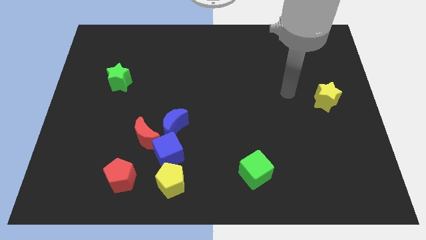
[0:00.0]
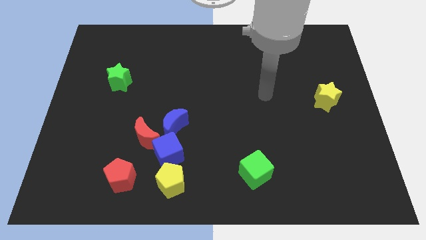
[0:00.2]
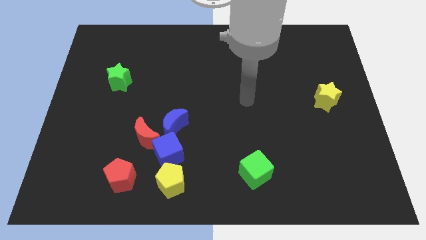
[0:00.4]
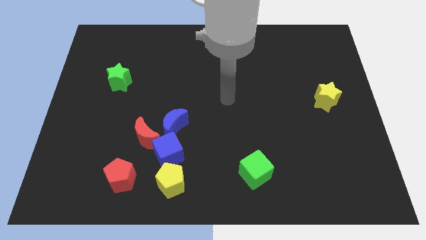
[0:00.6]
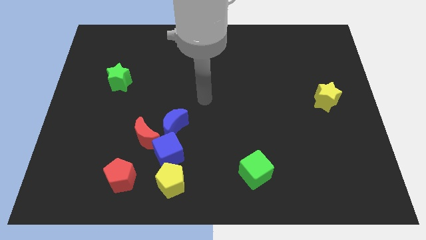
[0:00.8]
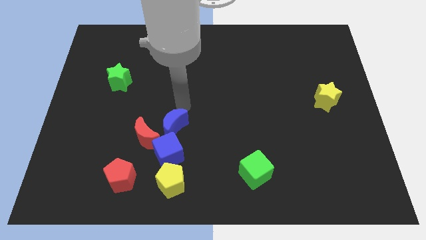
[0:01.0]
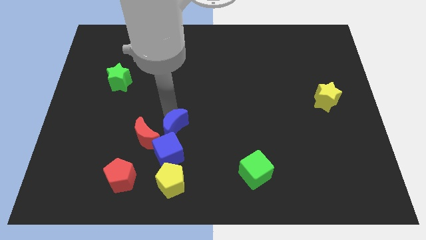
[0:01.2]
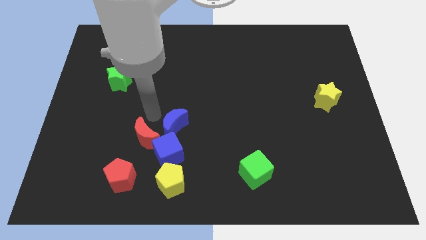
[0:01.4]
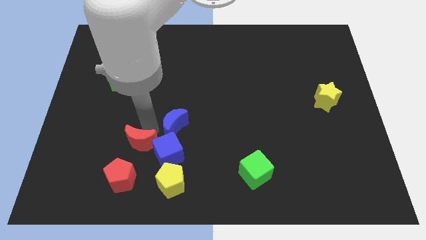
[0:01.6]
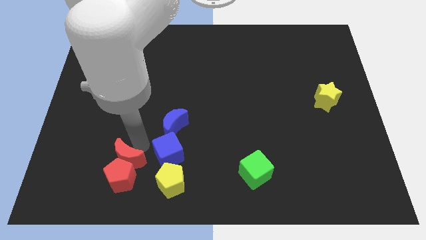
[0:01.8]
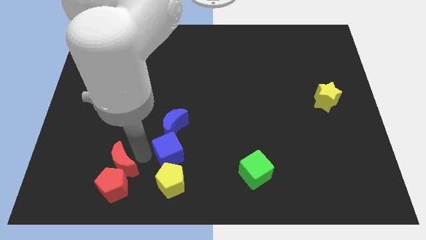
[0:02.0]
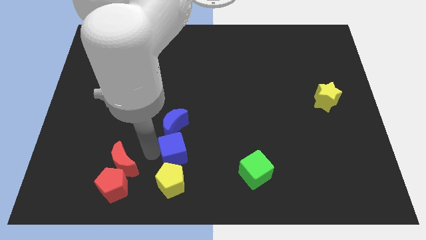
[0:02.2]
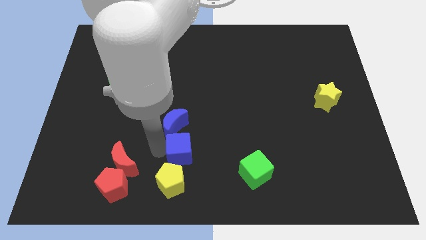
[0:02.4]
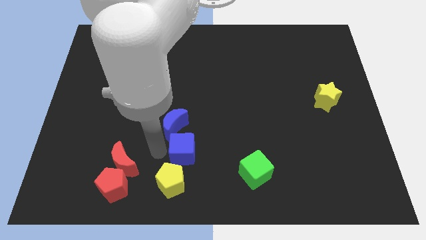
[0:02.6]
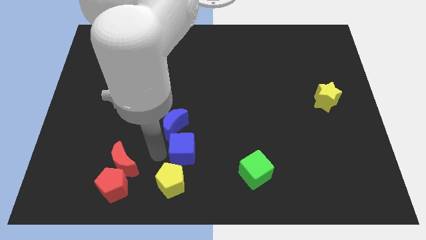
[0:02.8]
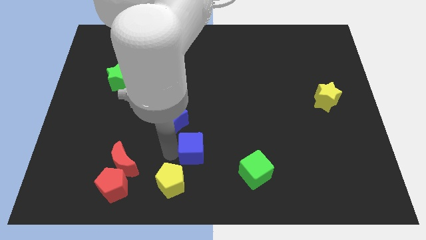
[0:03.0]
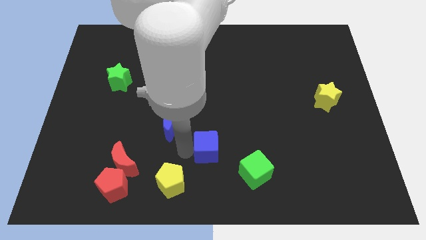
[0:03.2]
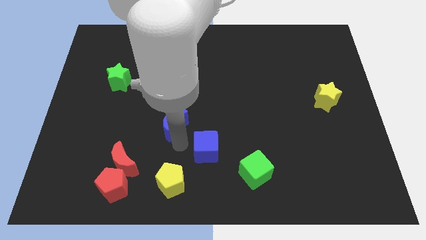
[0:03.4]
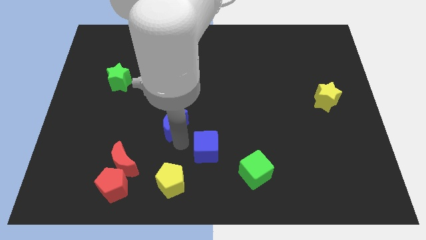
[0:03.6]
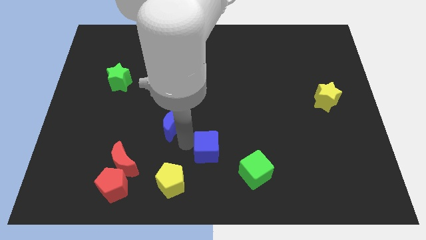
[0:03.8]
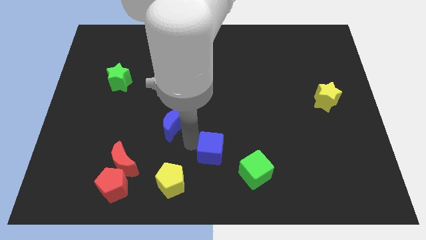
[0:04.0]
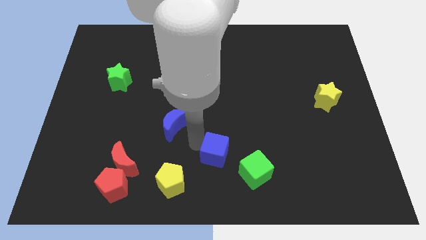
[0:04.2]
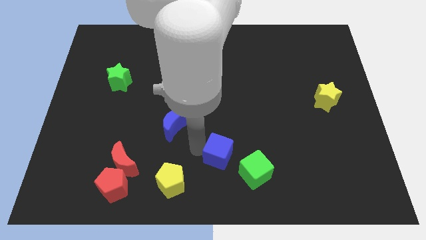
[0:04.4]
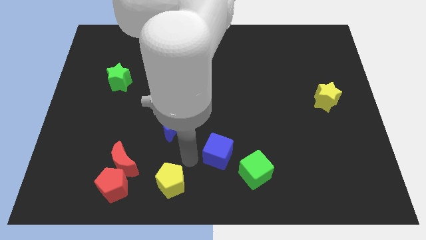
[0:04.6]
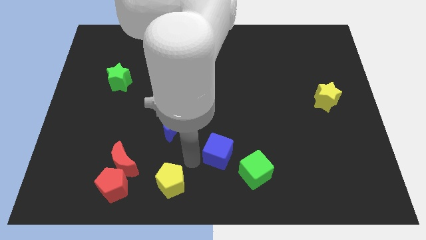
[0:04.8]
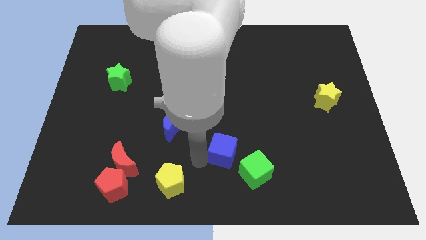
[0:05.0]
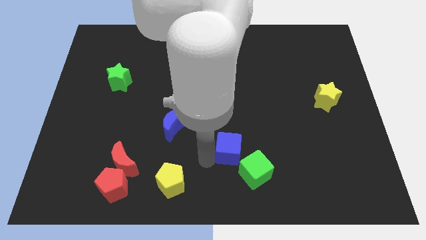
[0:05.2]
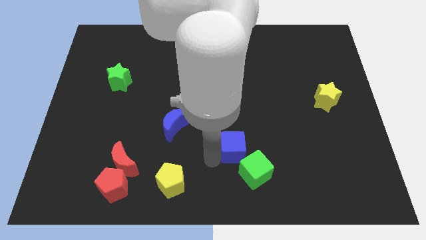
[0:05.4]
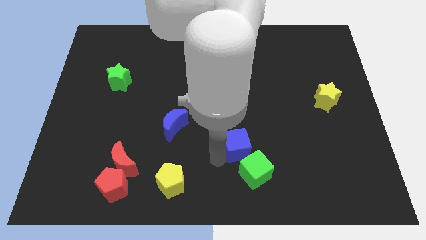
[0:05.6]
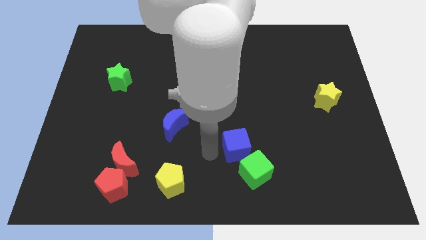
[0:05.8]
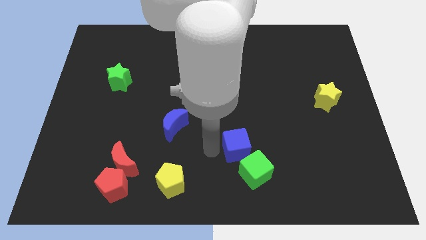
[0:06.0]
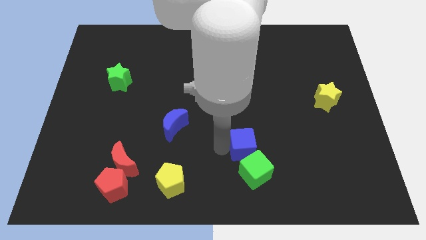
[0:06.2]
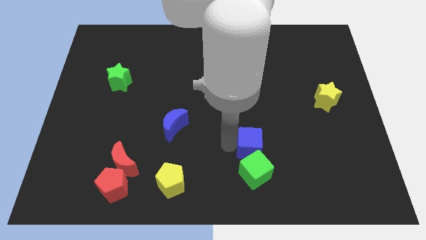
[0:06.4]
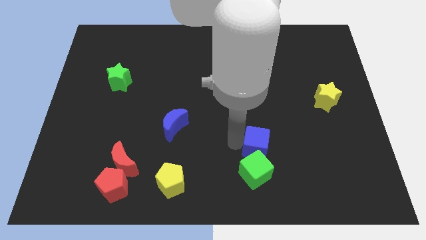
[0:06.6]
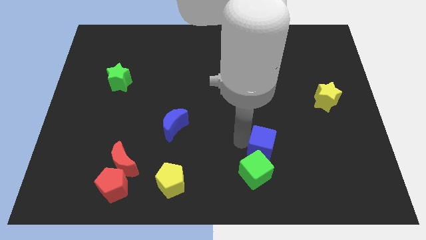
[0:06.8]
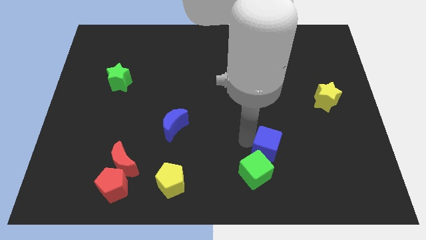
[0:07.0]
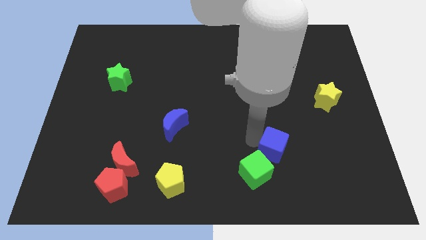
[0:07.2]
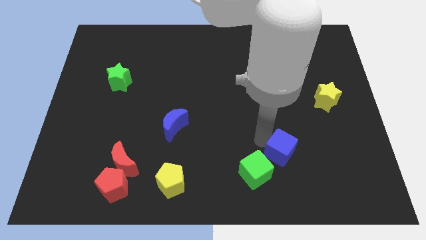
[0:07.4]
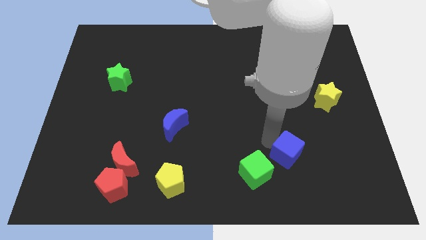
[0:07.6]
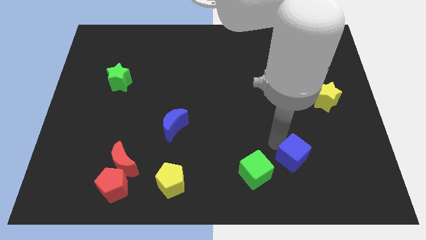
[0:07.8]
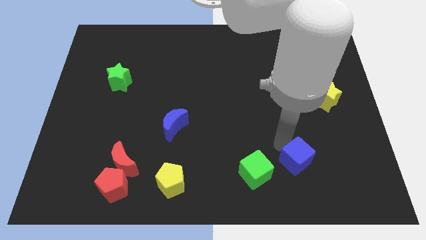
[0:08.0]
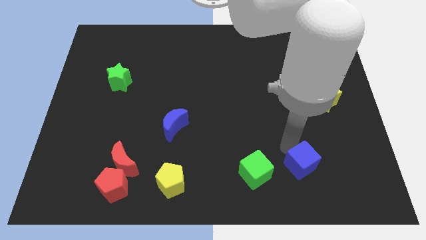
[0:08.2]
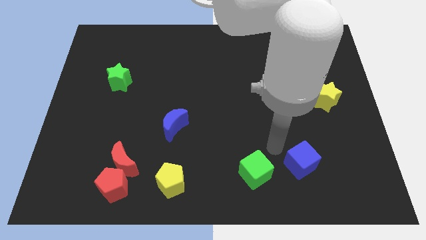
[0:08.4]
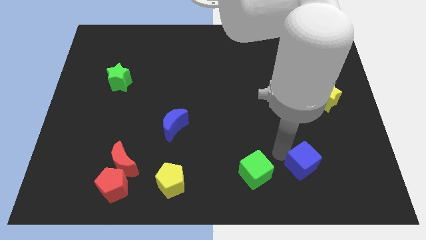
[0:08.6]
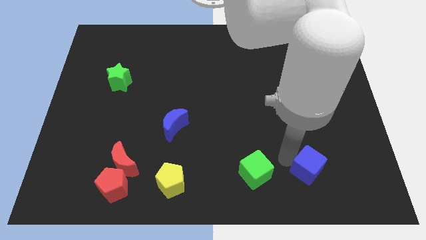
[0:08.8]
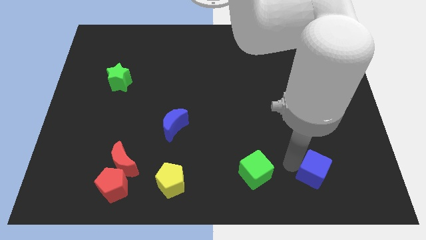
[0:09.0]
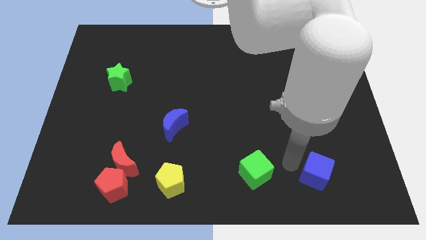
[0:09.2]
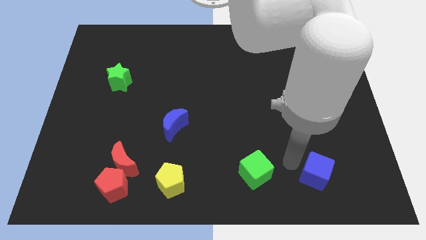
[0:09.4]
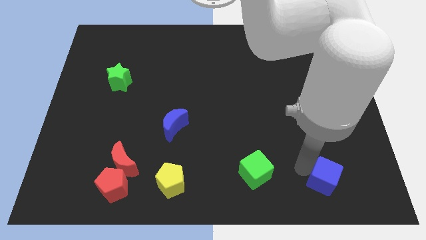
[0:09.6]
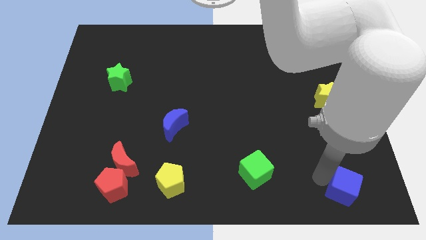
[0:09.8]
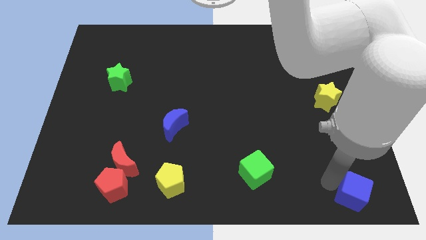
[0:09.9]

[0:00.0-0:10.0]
push the blue cube to the bottom right of the board

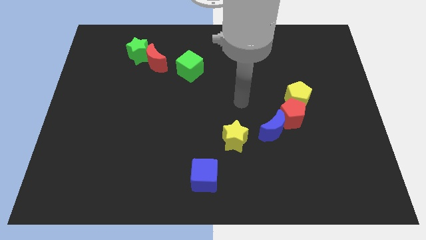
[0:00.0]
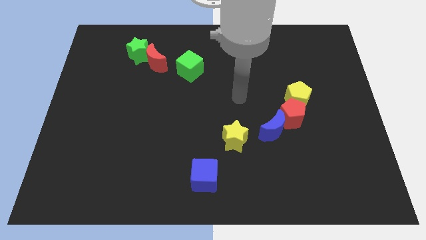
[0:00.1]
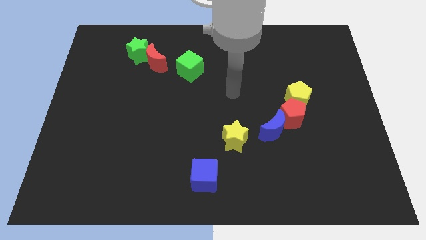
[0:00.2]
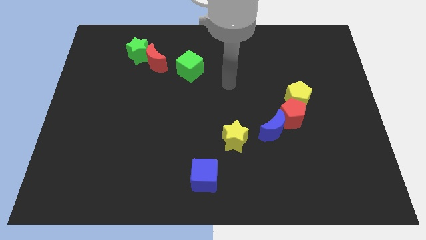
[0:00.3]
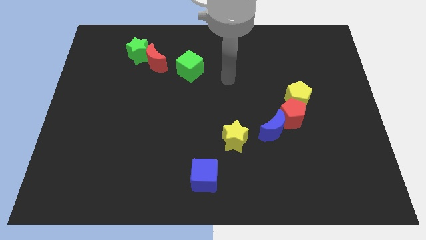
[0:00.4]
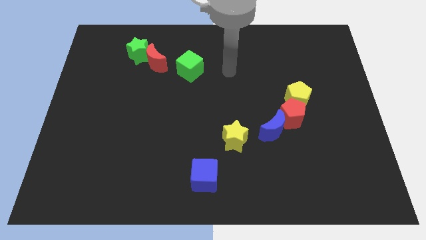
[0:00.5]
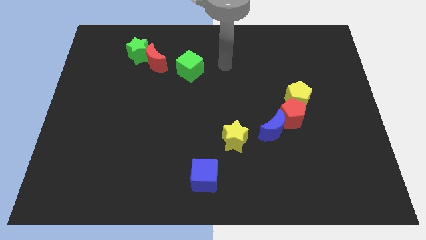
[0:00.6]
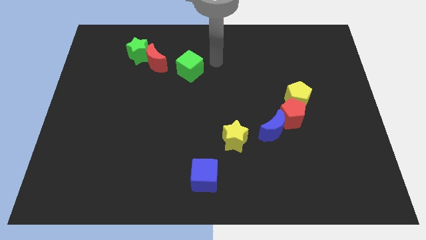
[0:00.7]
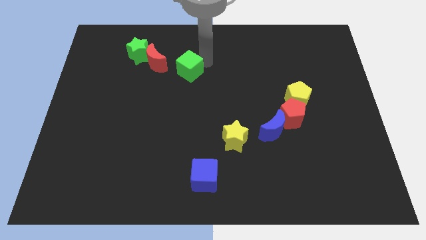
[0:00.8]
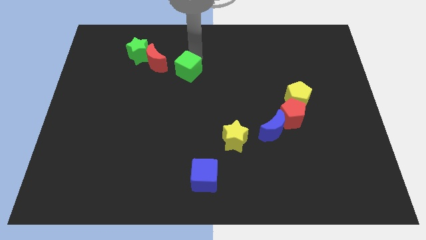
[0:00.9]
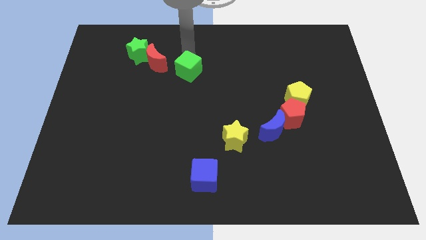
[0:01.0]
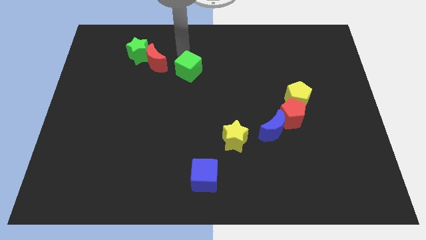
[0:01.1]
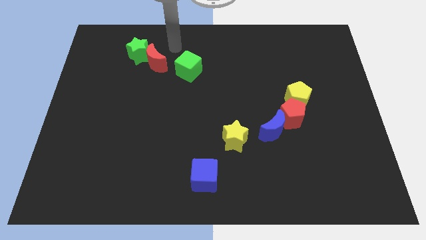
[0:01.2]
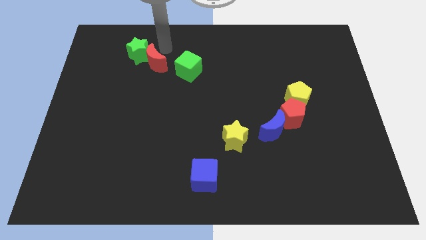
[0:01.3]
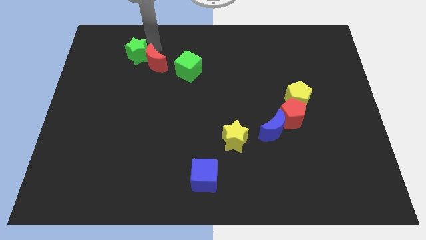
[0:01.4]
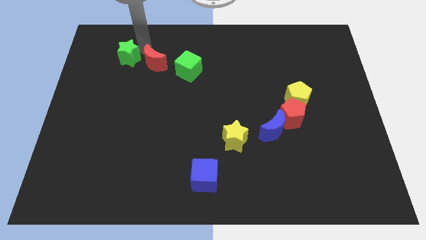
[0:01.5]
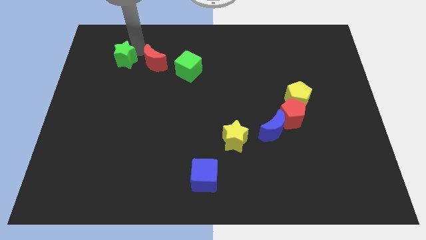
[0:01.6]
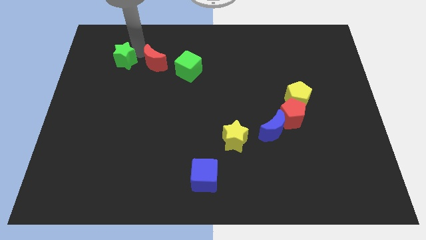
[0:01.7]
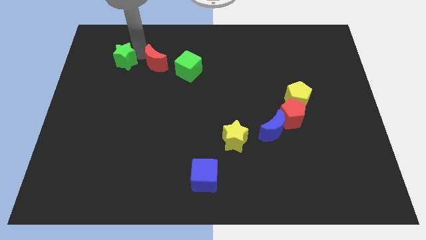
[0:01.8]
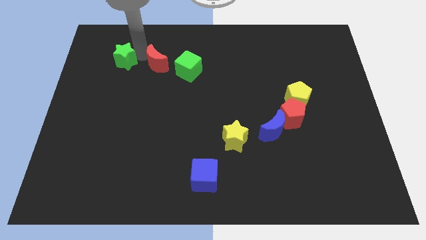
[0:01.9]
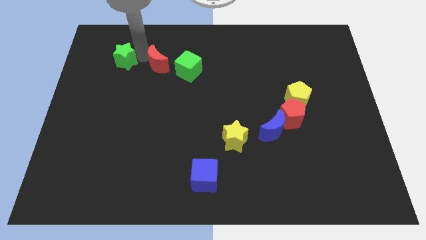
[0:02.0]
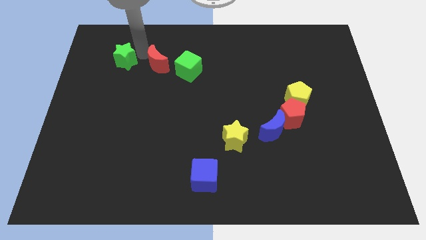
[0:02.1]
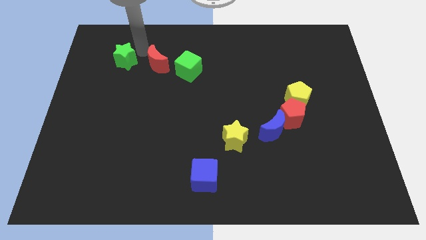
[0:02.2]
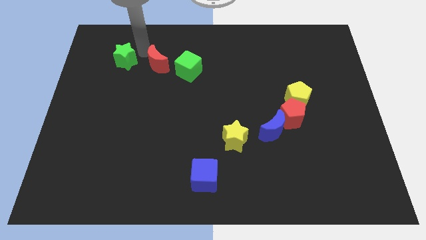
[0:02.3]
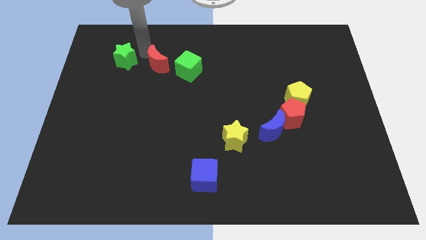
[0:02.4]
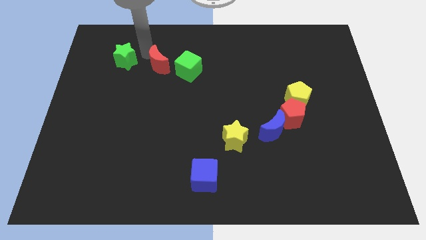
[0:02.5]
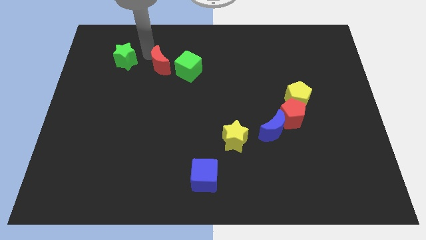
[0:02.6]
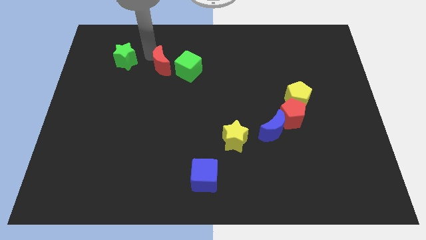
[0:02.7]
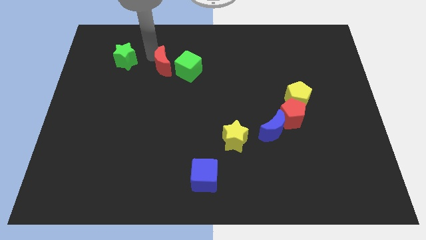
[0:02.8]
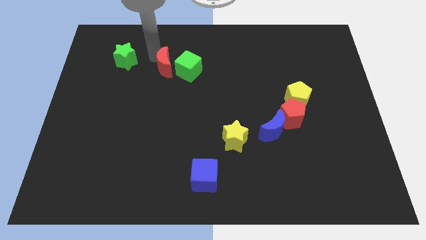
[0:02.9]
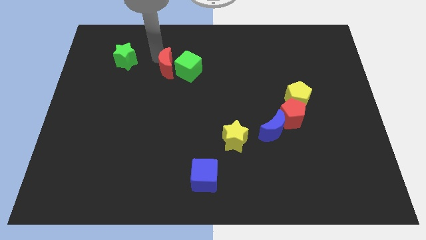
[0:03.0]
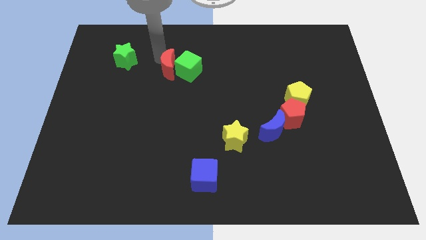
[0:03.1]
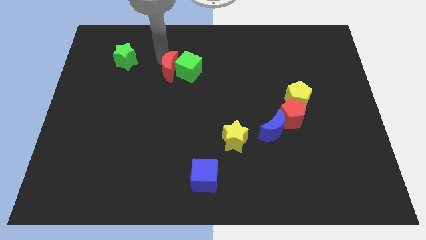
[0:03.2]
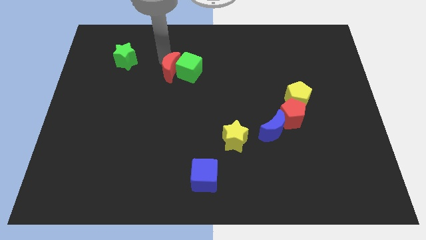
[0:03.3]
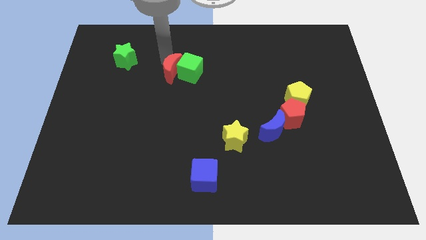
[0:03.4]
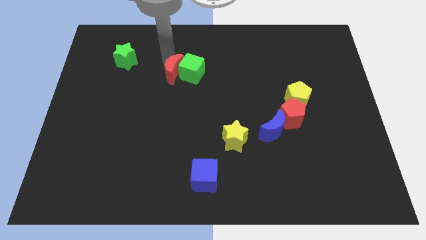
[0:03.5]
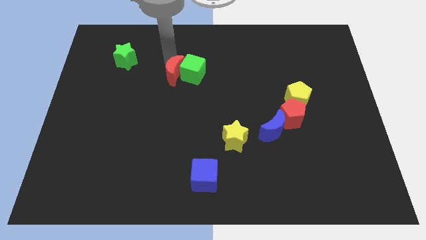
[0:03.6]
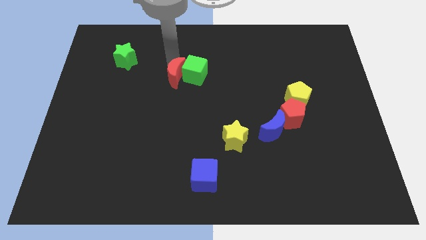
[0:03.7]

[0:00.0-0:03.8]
slide the red moon to the middle of the board
